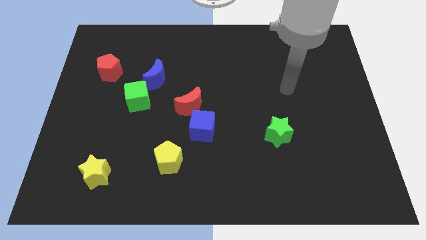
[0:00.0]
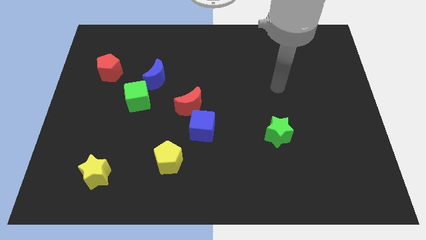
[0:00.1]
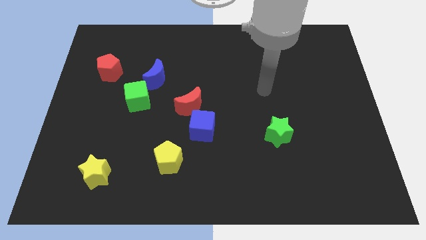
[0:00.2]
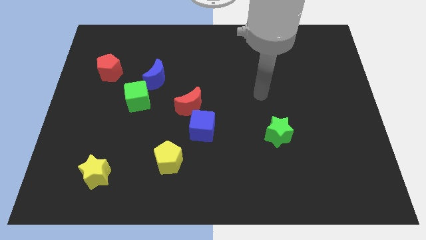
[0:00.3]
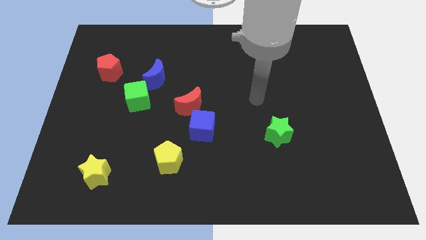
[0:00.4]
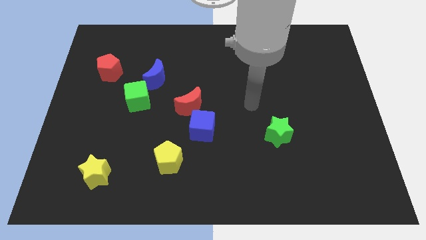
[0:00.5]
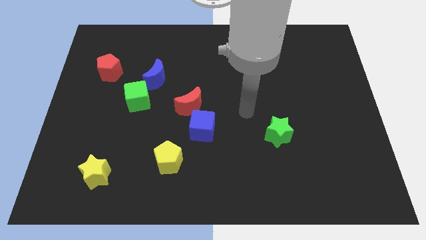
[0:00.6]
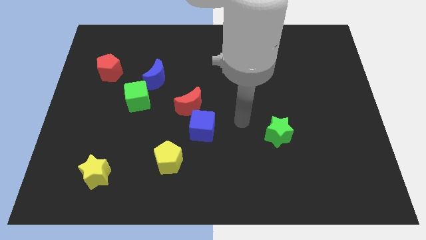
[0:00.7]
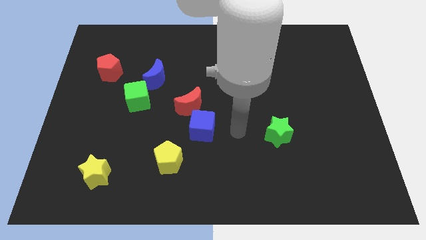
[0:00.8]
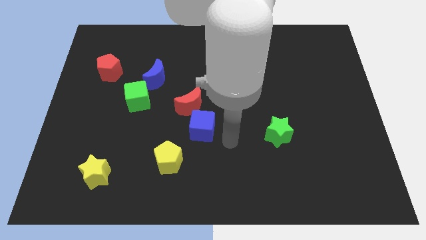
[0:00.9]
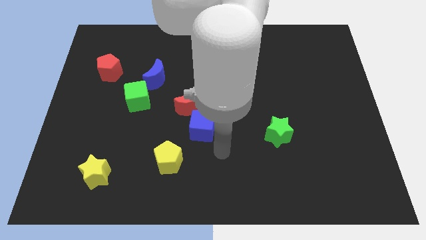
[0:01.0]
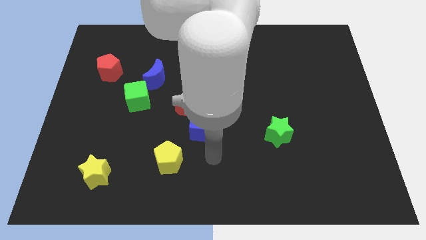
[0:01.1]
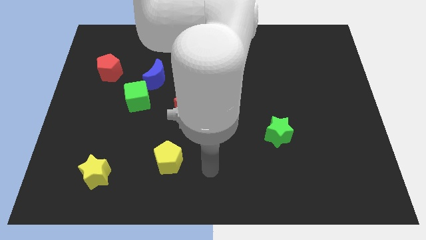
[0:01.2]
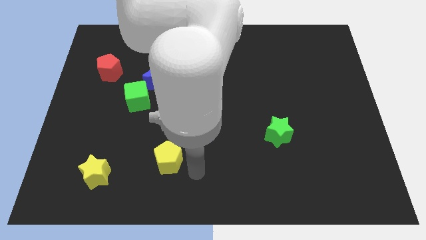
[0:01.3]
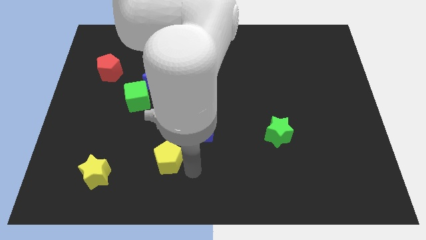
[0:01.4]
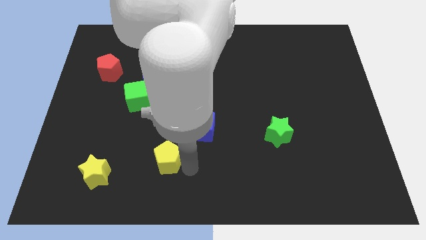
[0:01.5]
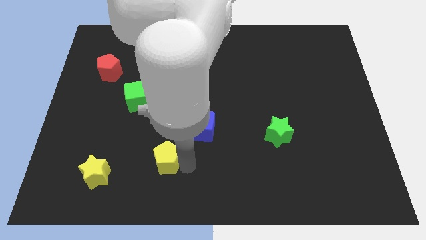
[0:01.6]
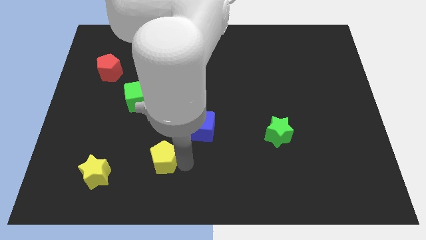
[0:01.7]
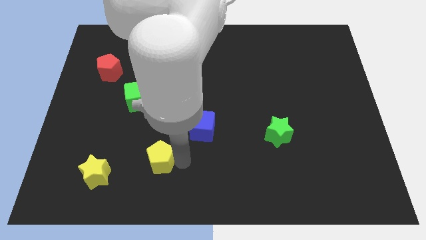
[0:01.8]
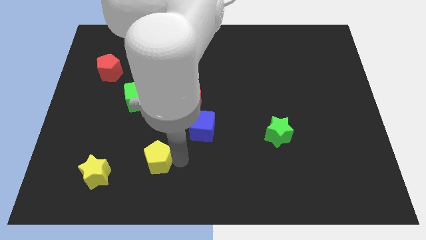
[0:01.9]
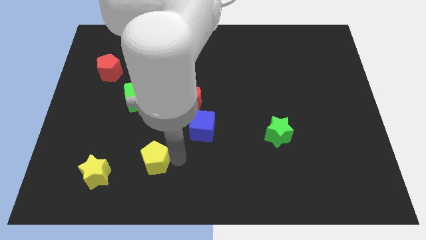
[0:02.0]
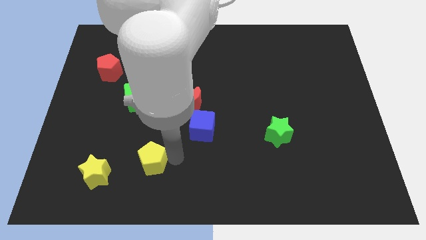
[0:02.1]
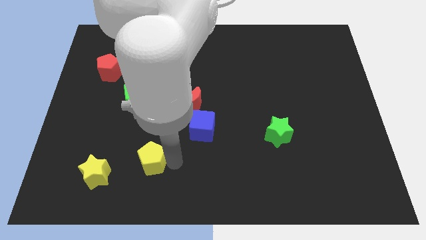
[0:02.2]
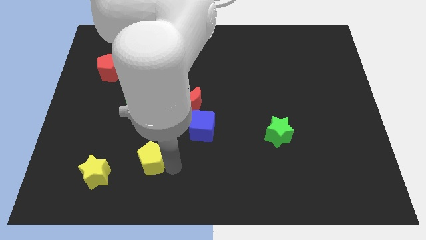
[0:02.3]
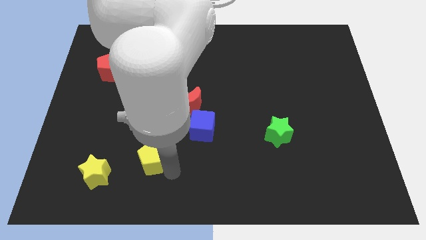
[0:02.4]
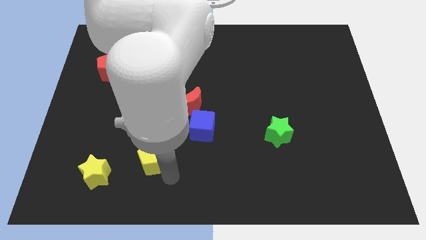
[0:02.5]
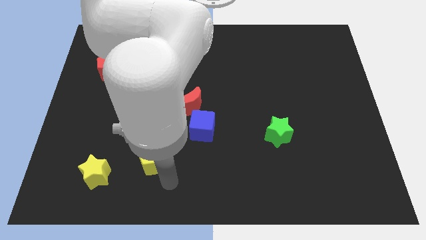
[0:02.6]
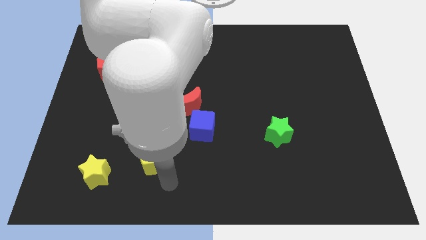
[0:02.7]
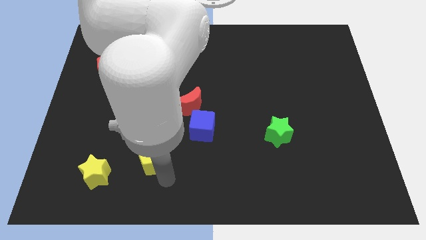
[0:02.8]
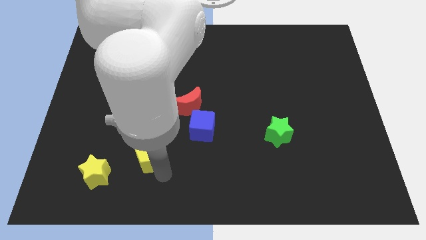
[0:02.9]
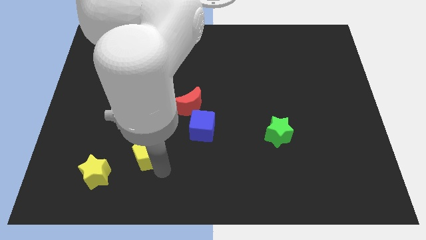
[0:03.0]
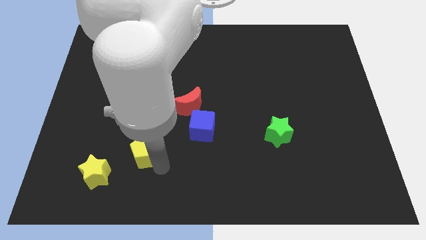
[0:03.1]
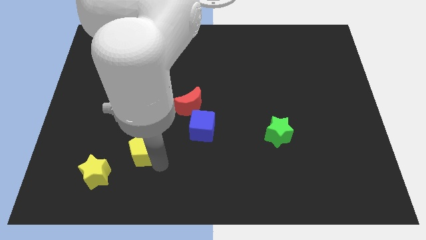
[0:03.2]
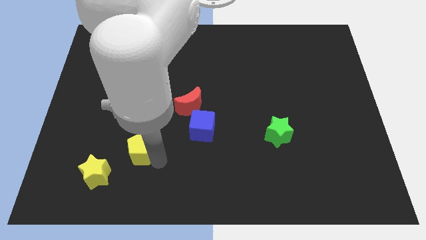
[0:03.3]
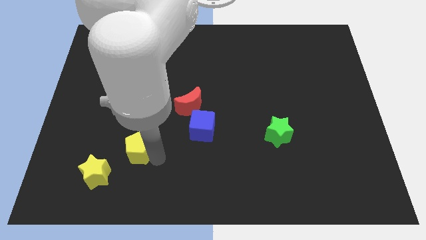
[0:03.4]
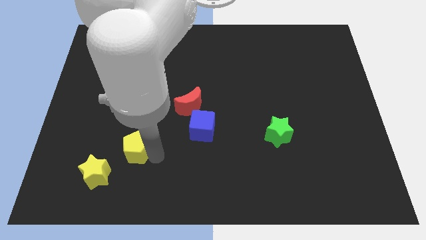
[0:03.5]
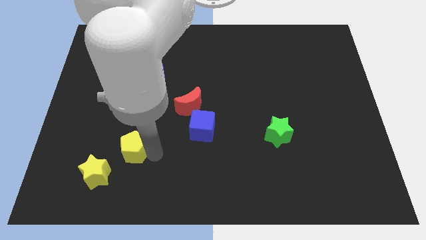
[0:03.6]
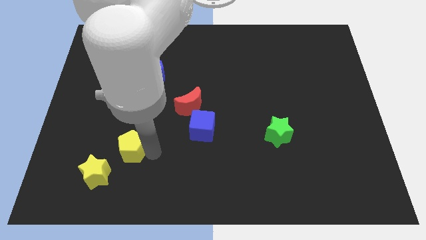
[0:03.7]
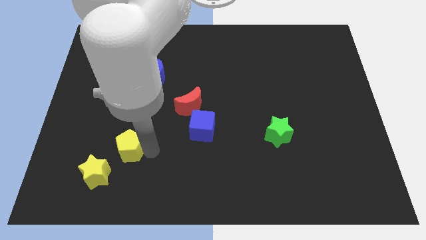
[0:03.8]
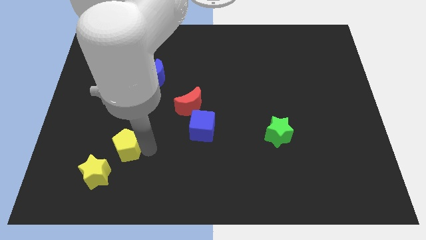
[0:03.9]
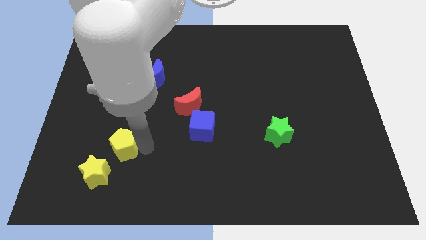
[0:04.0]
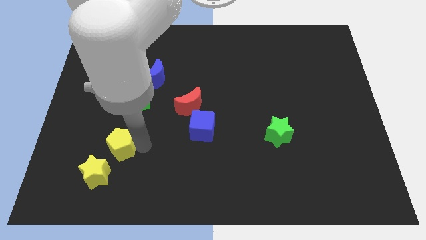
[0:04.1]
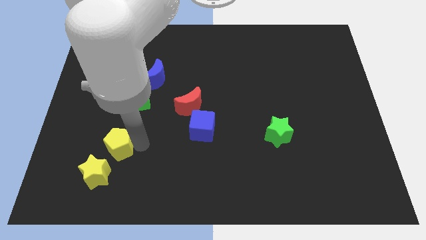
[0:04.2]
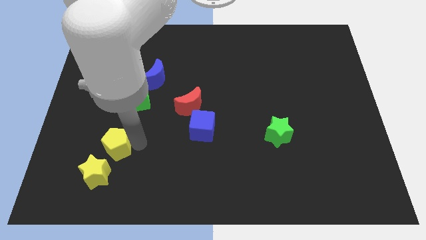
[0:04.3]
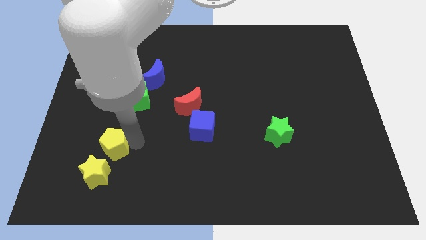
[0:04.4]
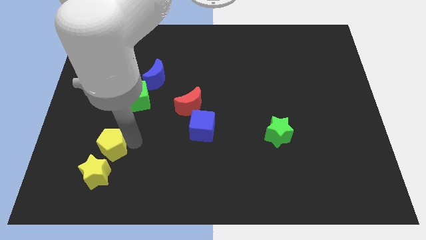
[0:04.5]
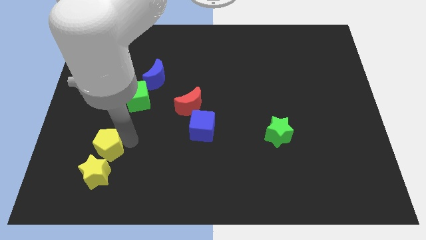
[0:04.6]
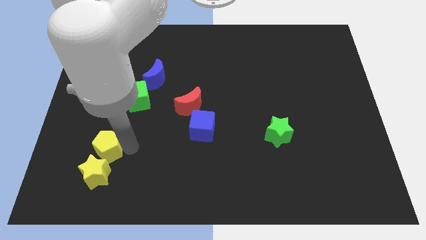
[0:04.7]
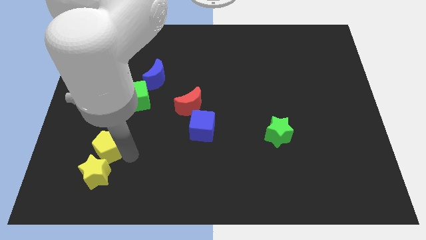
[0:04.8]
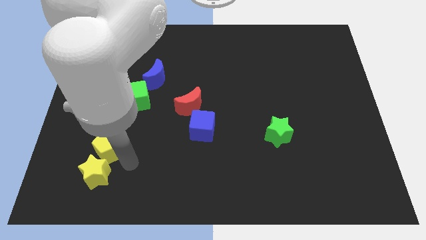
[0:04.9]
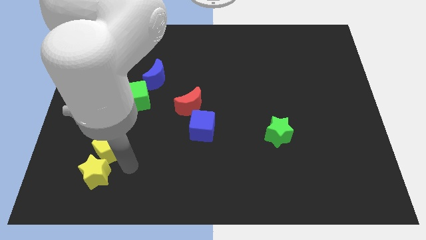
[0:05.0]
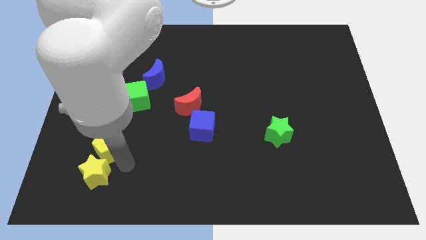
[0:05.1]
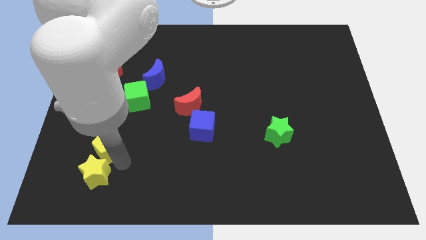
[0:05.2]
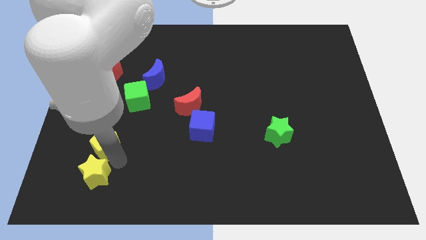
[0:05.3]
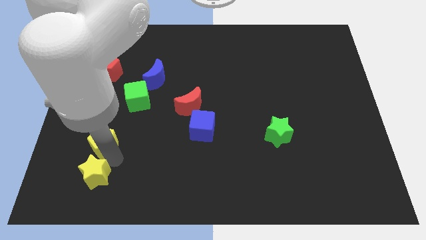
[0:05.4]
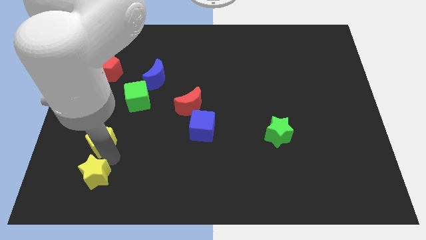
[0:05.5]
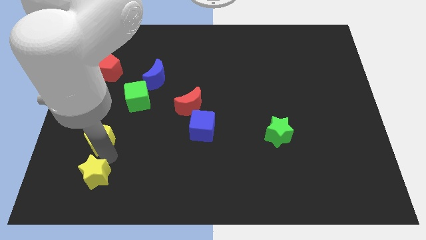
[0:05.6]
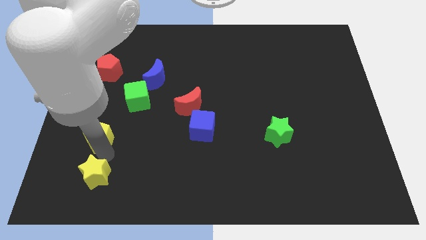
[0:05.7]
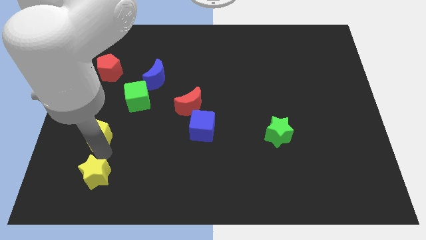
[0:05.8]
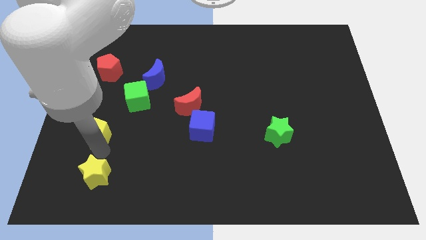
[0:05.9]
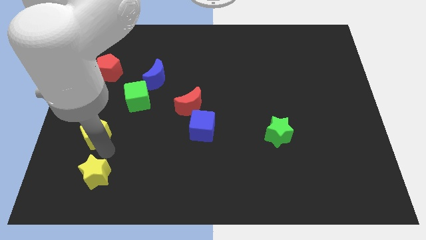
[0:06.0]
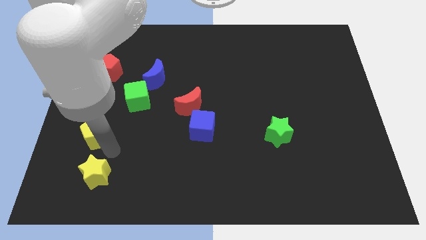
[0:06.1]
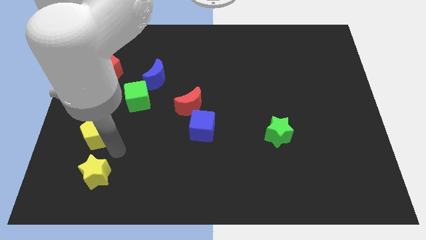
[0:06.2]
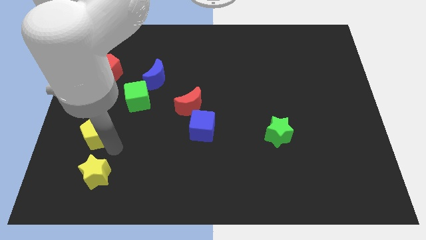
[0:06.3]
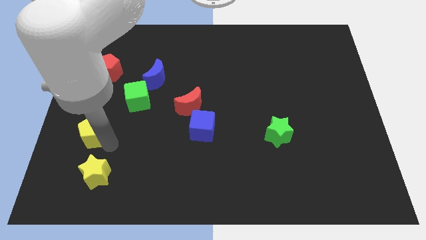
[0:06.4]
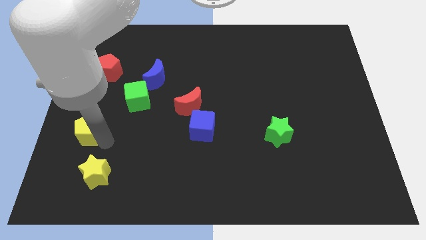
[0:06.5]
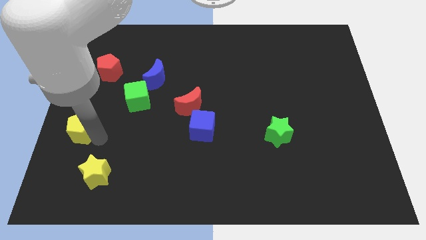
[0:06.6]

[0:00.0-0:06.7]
put the yellow pentagon to the left side

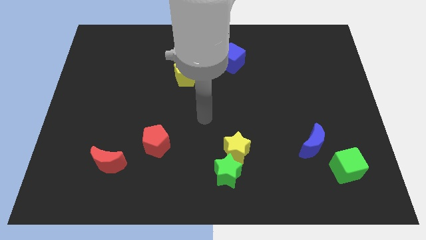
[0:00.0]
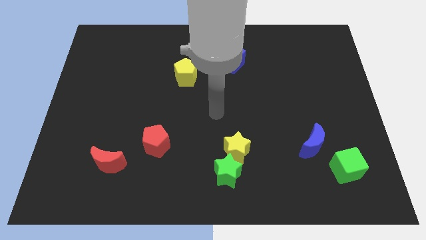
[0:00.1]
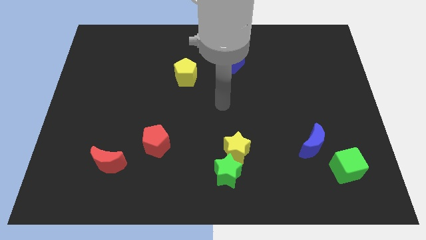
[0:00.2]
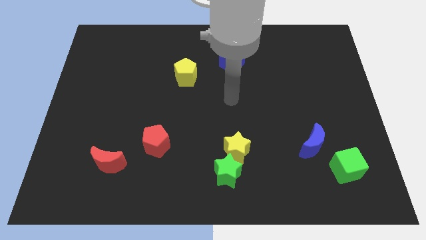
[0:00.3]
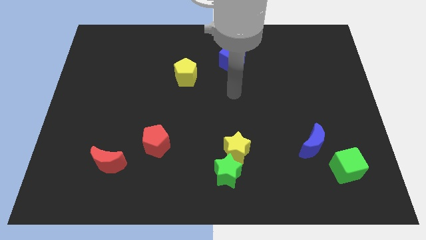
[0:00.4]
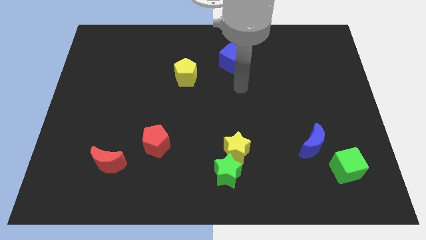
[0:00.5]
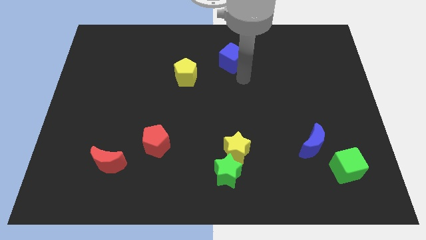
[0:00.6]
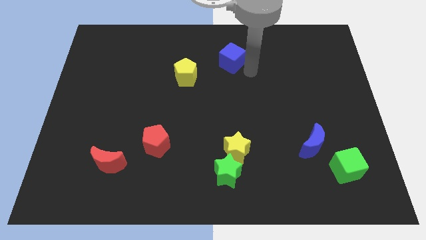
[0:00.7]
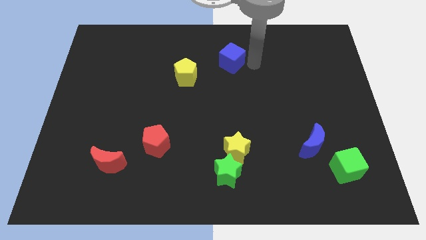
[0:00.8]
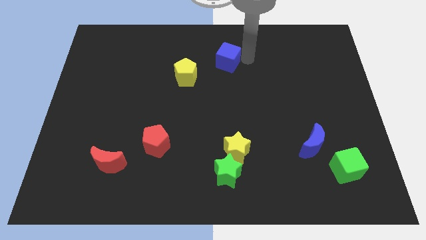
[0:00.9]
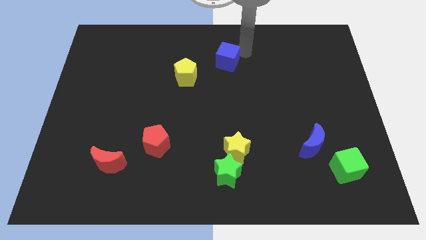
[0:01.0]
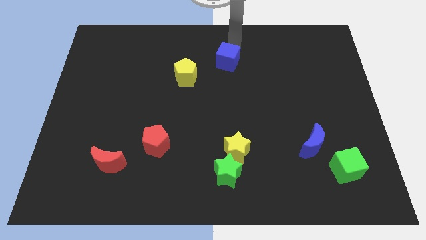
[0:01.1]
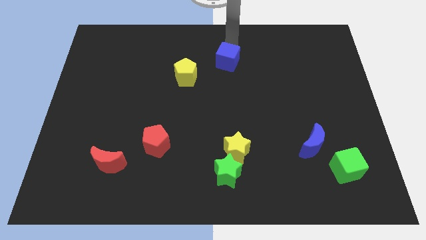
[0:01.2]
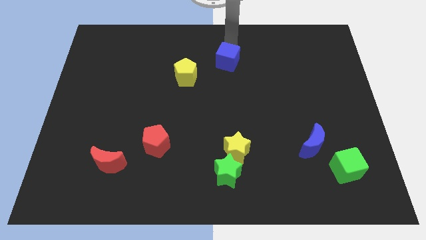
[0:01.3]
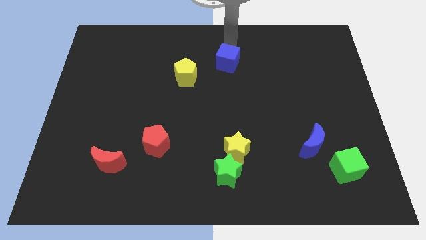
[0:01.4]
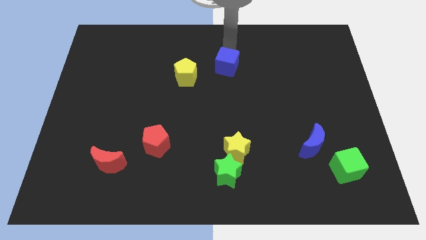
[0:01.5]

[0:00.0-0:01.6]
move the blue cube to the middle
